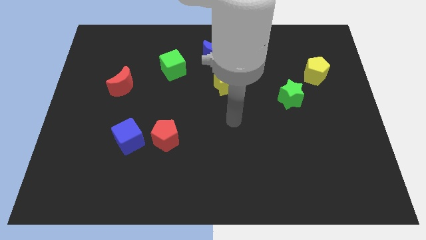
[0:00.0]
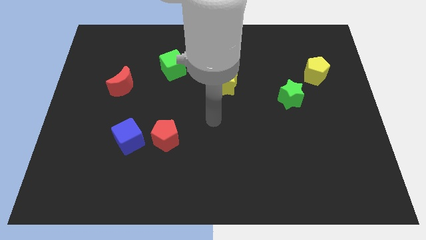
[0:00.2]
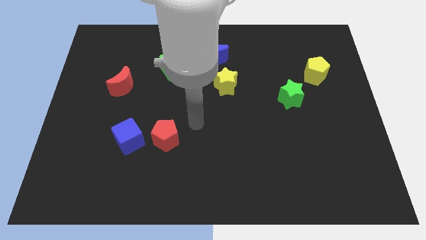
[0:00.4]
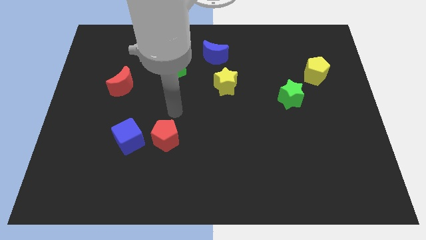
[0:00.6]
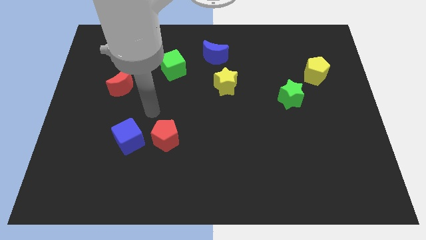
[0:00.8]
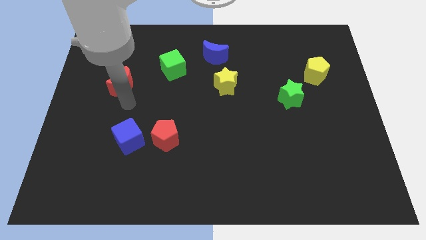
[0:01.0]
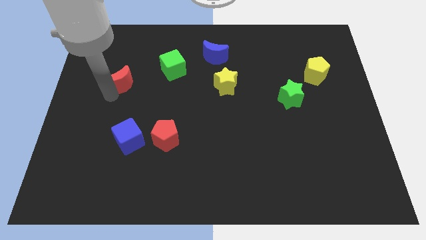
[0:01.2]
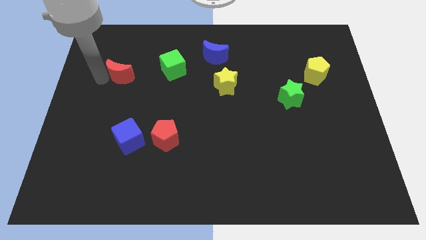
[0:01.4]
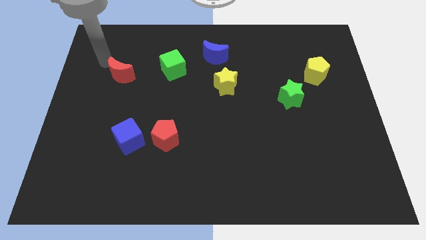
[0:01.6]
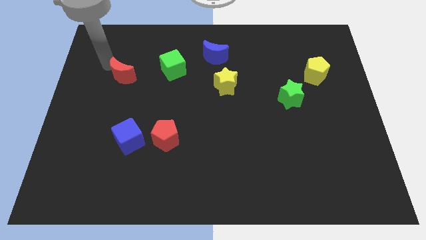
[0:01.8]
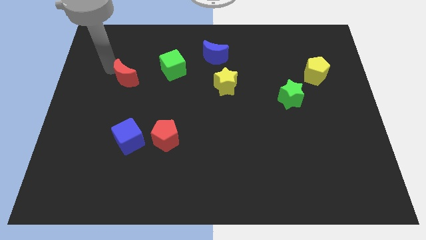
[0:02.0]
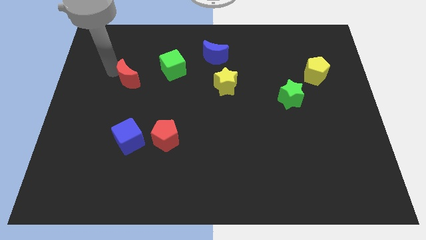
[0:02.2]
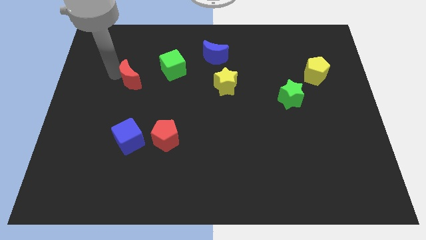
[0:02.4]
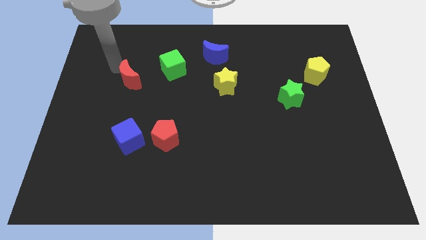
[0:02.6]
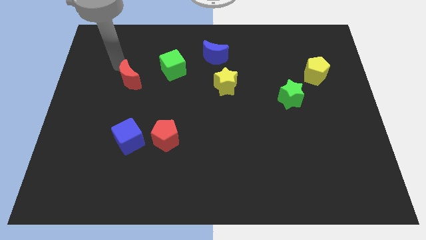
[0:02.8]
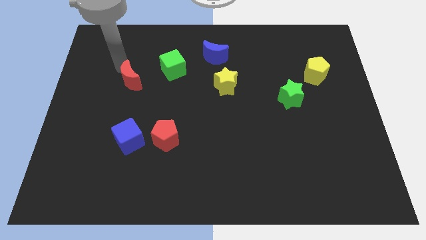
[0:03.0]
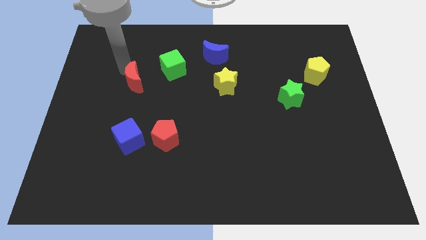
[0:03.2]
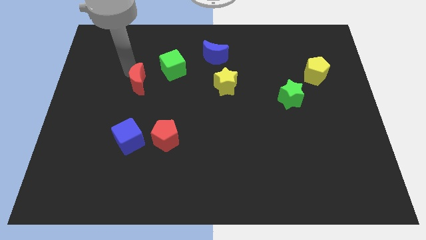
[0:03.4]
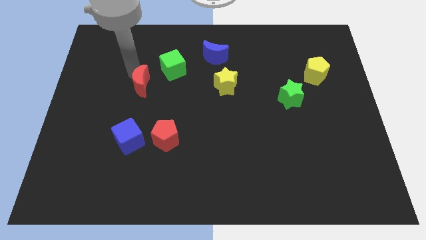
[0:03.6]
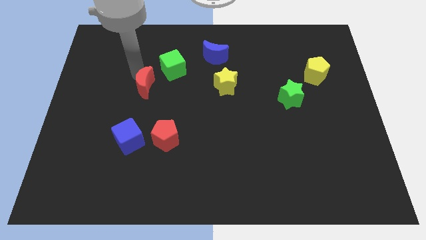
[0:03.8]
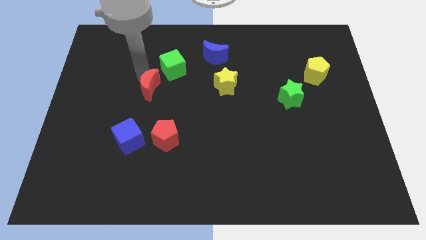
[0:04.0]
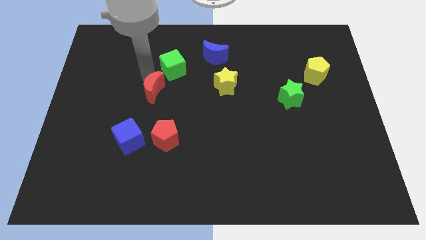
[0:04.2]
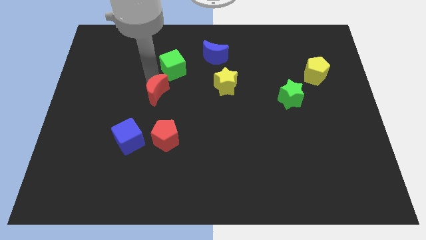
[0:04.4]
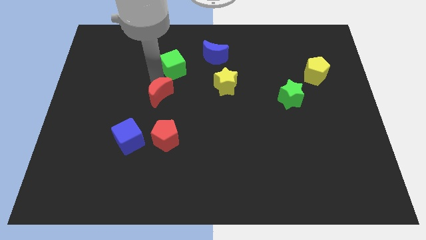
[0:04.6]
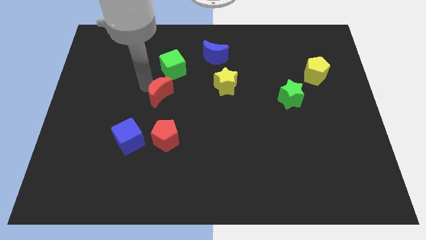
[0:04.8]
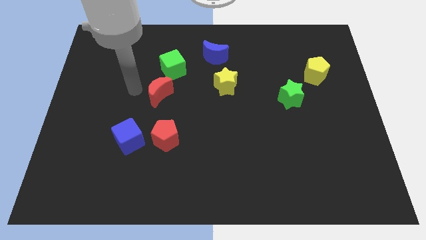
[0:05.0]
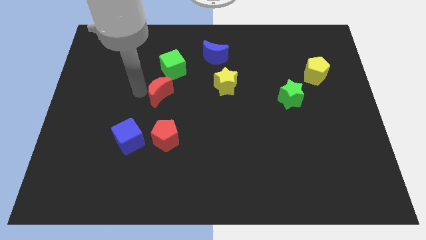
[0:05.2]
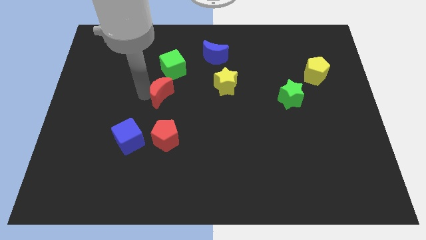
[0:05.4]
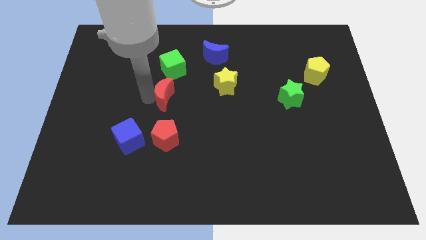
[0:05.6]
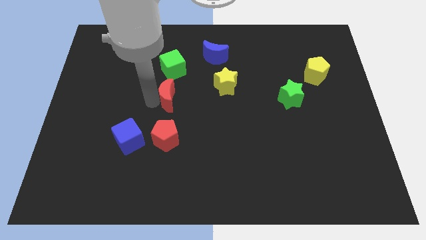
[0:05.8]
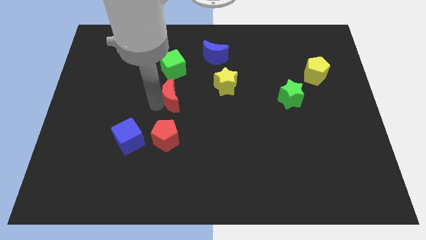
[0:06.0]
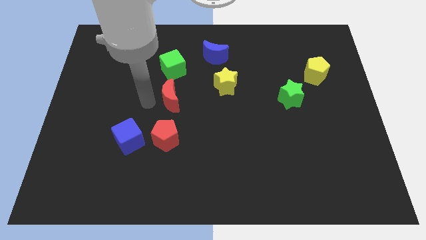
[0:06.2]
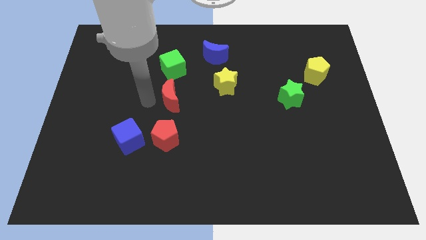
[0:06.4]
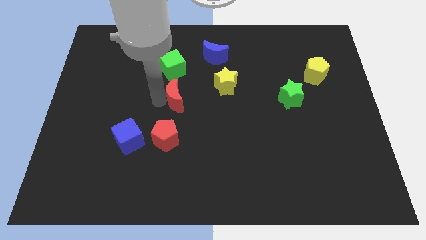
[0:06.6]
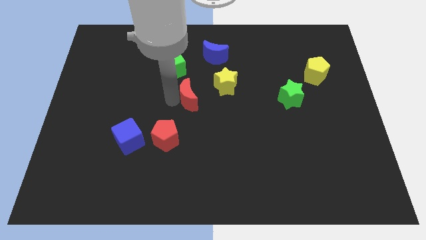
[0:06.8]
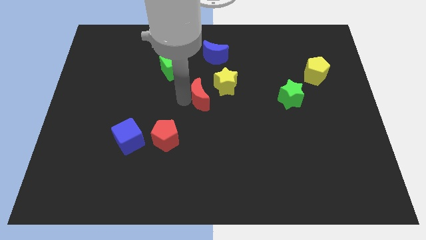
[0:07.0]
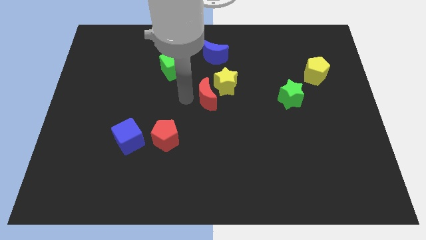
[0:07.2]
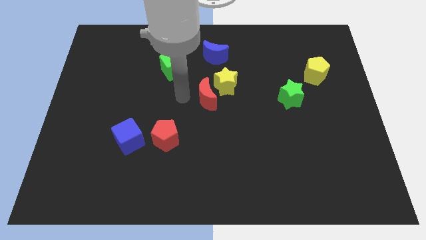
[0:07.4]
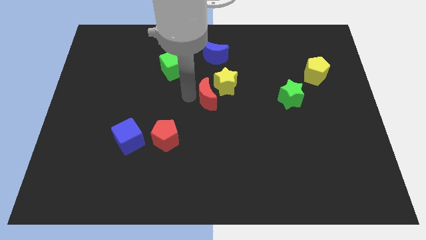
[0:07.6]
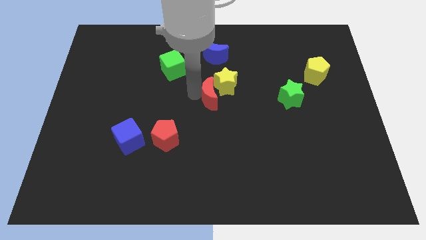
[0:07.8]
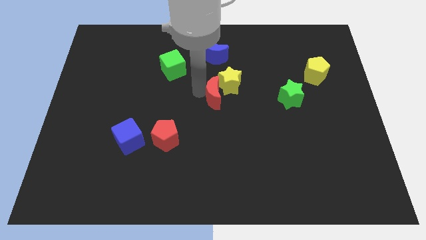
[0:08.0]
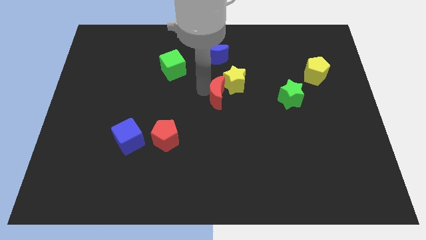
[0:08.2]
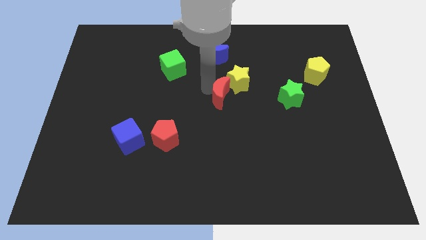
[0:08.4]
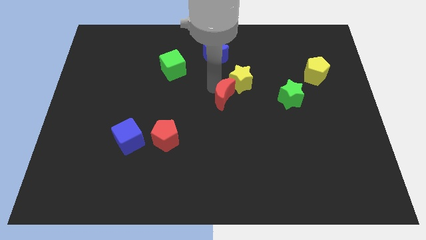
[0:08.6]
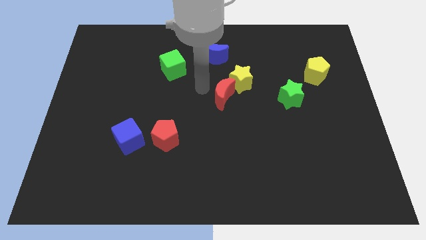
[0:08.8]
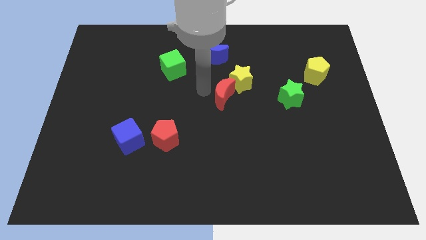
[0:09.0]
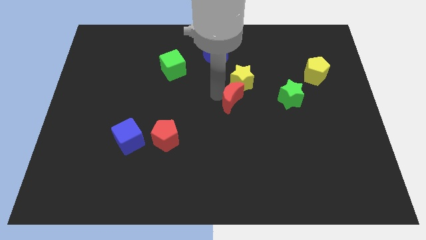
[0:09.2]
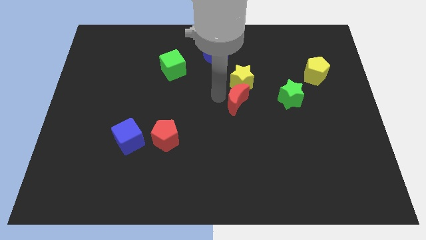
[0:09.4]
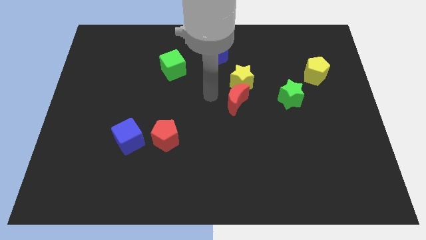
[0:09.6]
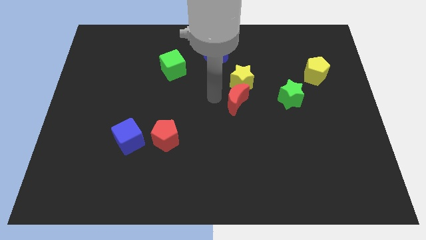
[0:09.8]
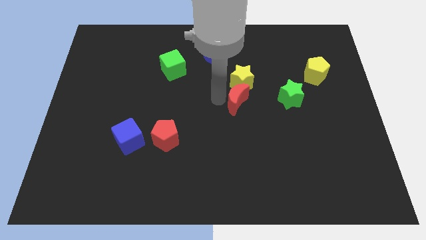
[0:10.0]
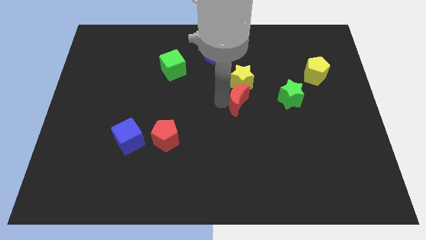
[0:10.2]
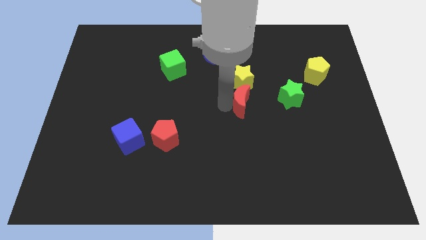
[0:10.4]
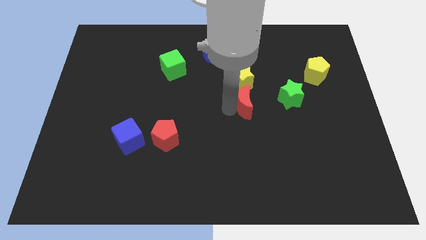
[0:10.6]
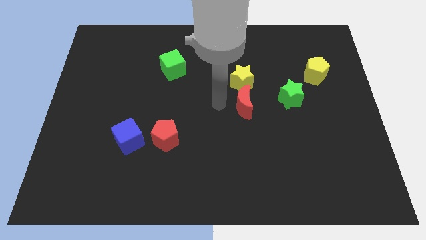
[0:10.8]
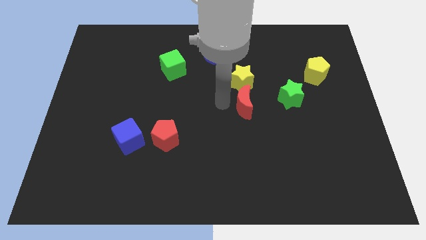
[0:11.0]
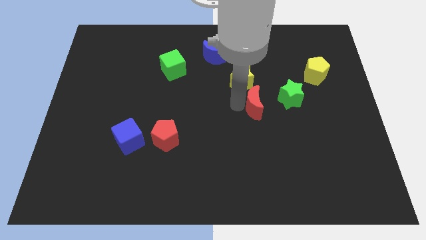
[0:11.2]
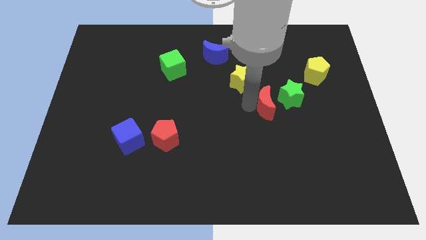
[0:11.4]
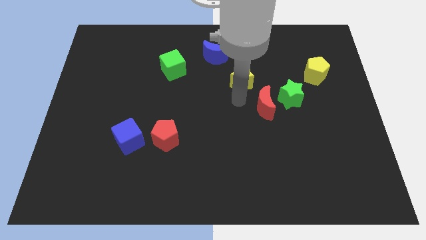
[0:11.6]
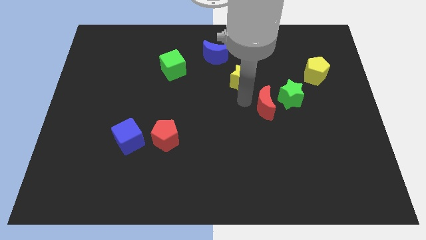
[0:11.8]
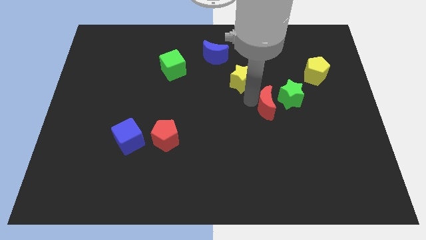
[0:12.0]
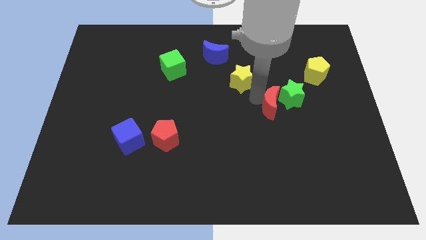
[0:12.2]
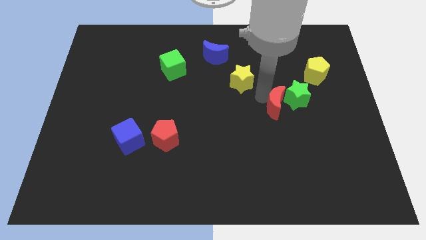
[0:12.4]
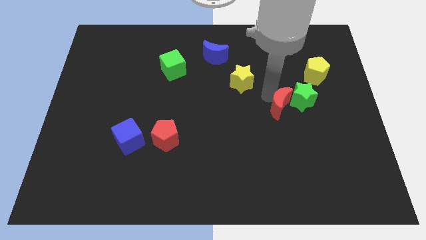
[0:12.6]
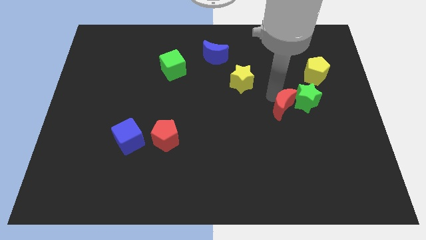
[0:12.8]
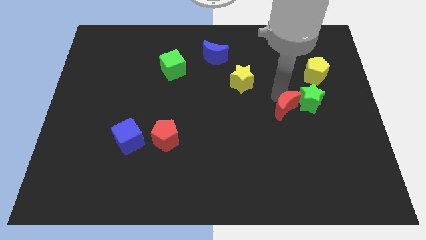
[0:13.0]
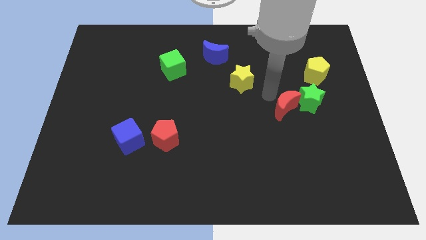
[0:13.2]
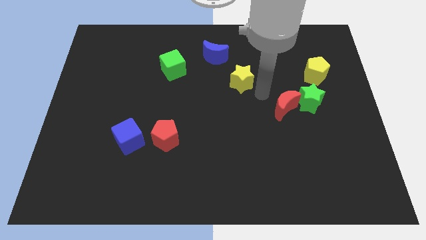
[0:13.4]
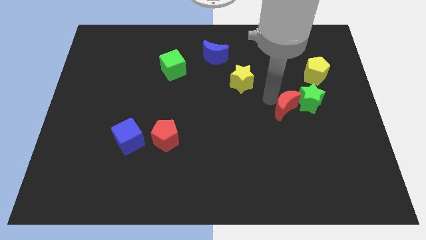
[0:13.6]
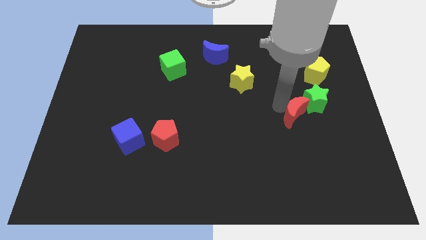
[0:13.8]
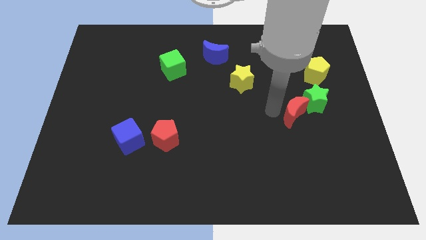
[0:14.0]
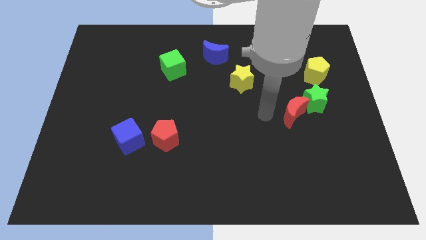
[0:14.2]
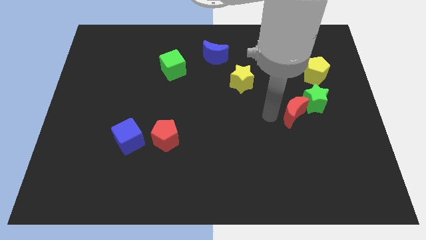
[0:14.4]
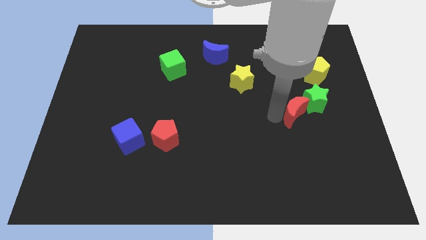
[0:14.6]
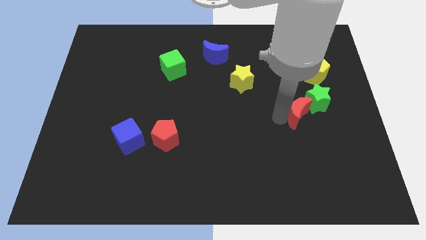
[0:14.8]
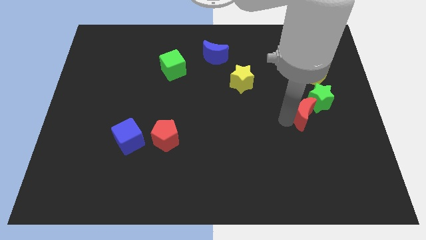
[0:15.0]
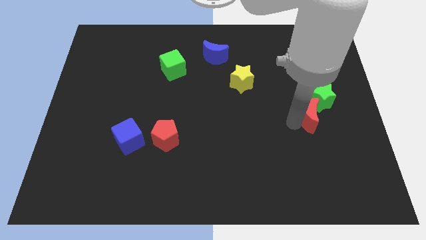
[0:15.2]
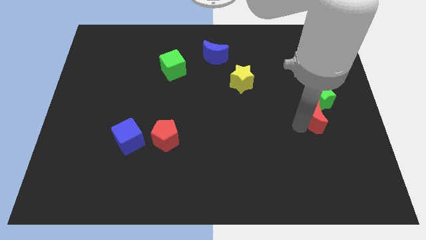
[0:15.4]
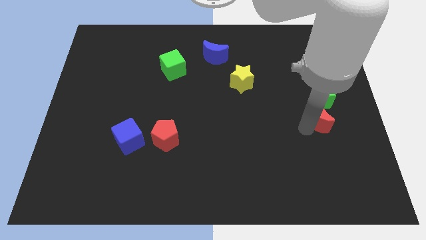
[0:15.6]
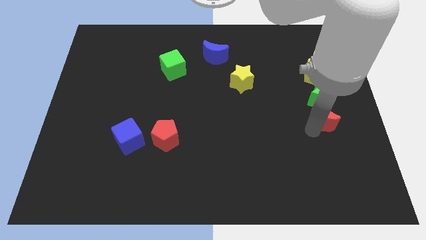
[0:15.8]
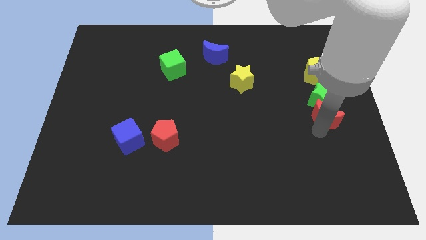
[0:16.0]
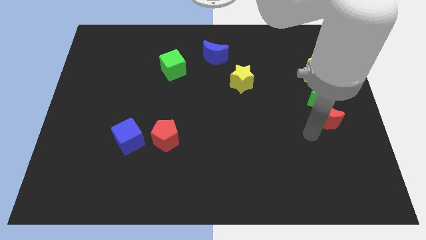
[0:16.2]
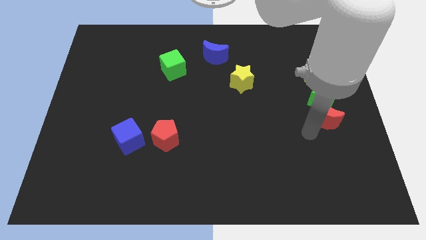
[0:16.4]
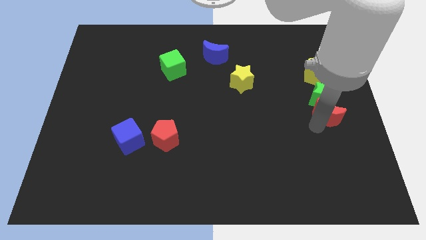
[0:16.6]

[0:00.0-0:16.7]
push the red moon to the right side of the board
